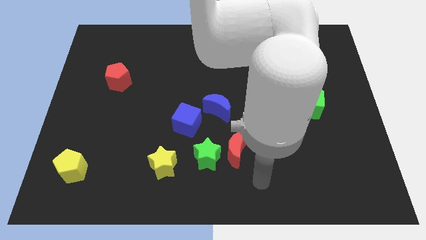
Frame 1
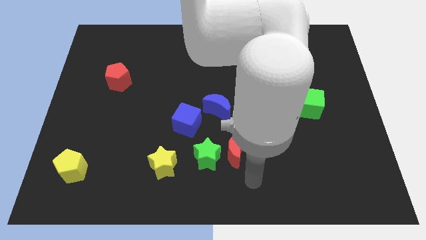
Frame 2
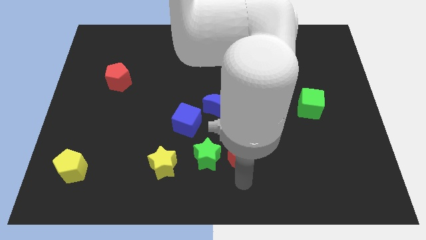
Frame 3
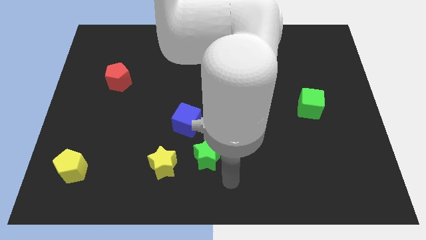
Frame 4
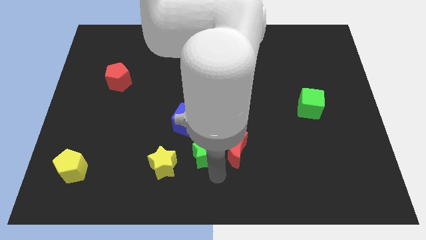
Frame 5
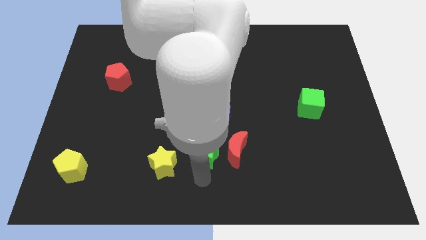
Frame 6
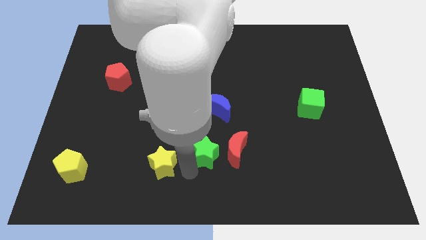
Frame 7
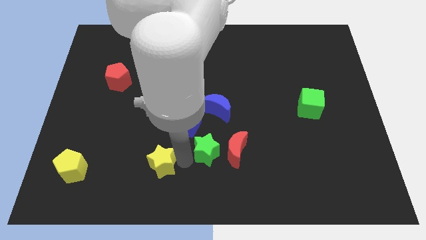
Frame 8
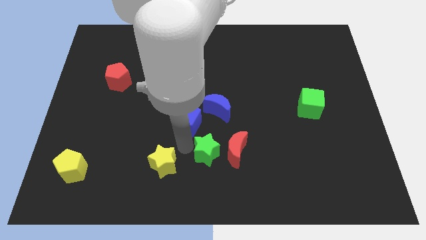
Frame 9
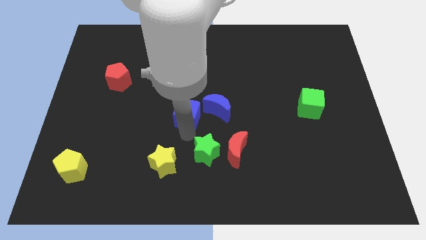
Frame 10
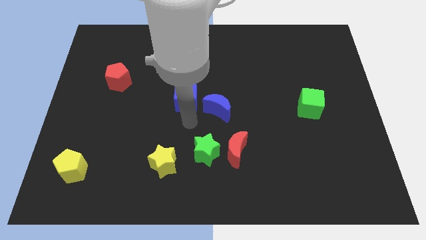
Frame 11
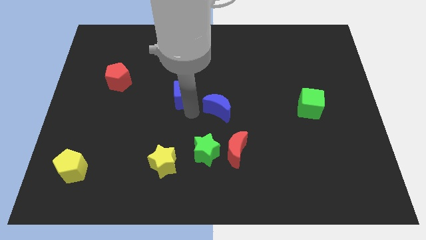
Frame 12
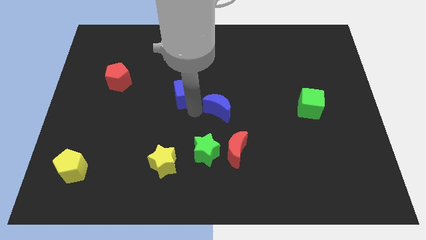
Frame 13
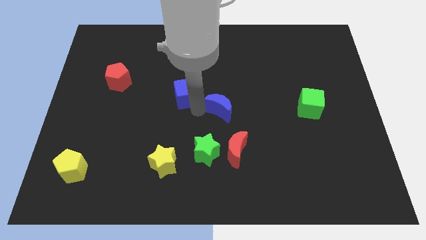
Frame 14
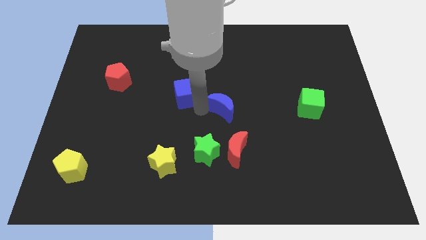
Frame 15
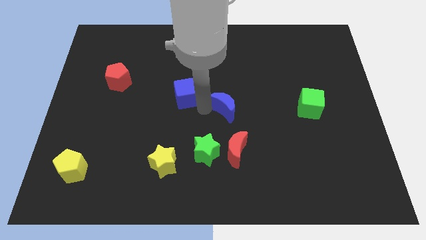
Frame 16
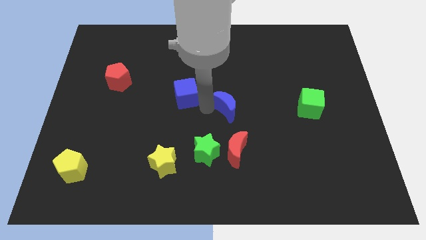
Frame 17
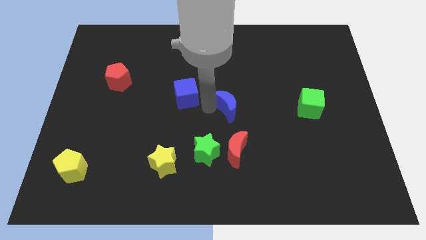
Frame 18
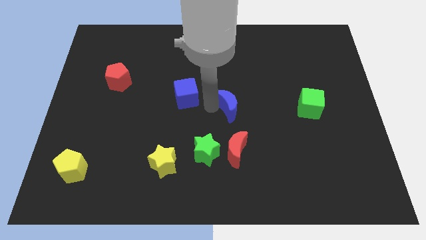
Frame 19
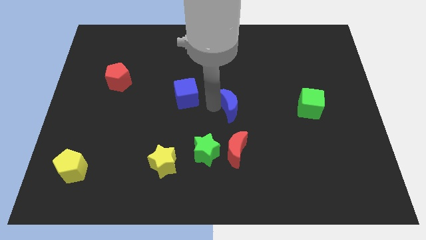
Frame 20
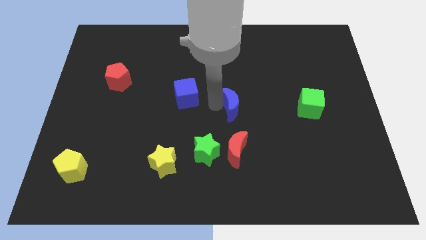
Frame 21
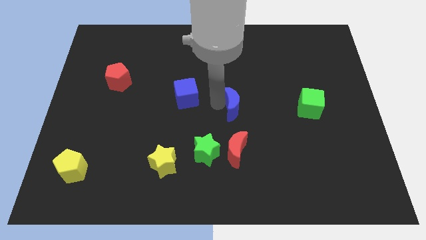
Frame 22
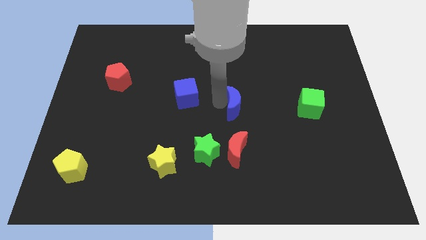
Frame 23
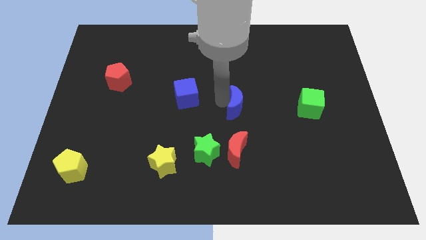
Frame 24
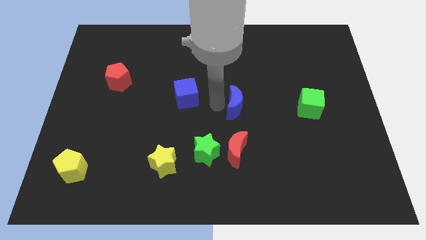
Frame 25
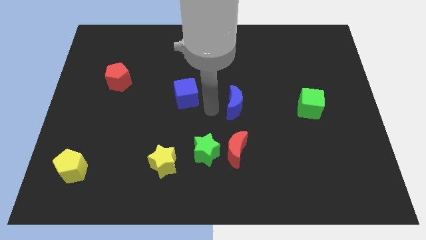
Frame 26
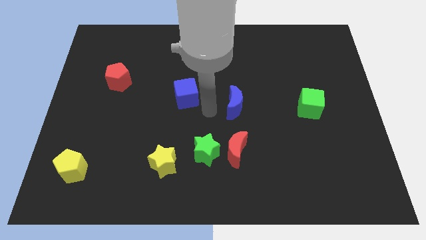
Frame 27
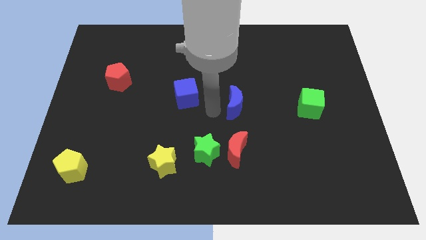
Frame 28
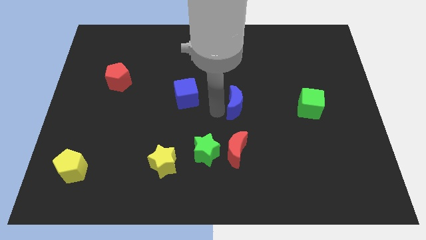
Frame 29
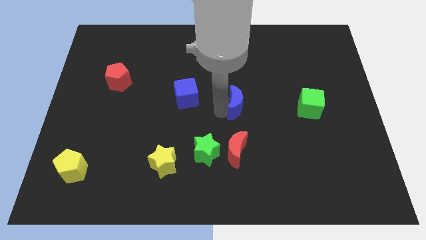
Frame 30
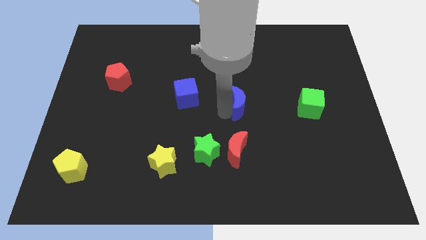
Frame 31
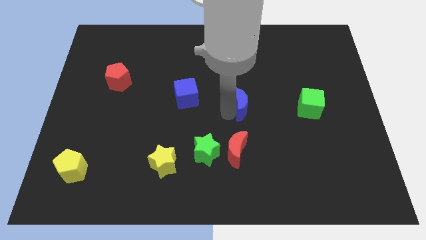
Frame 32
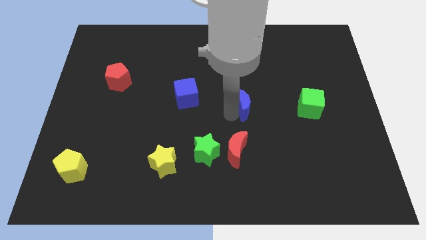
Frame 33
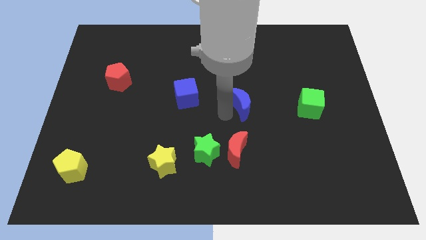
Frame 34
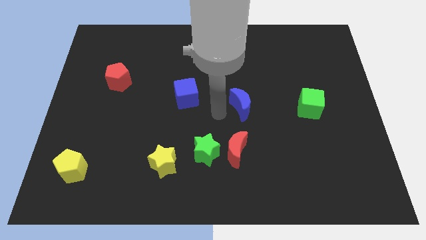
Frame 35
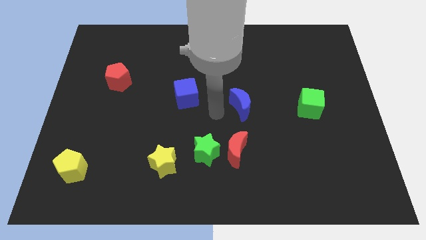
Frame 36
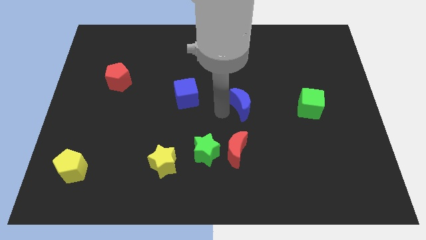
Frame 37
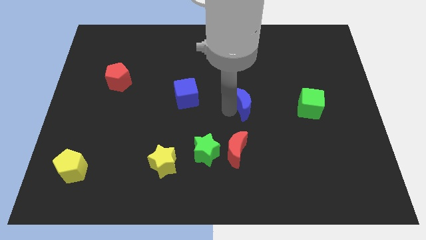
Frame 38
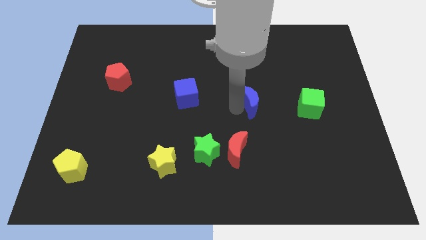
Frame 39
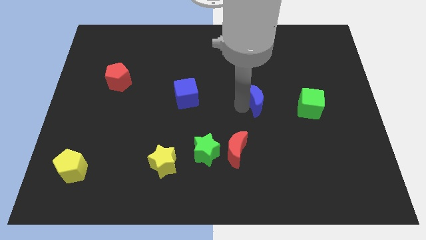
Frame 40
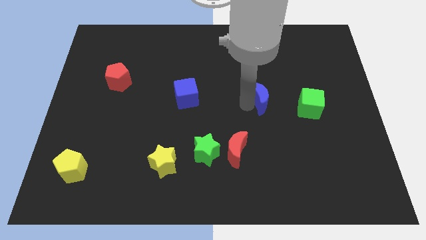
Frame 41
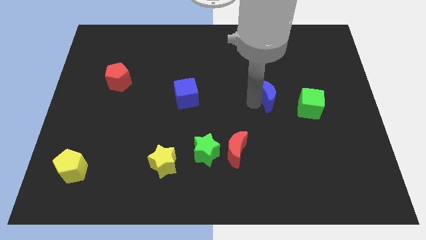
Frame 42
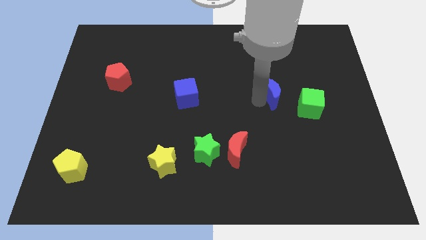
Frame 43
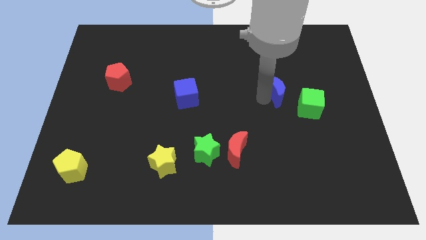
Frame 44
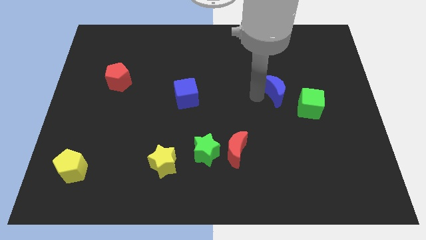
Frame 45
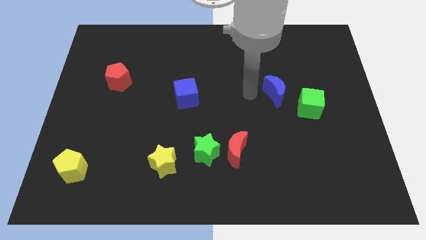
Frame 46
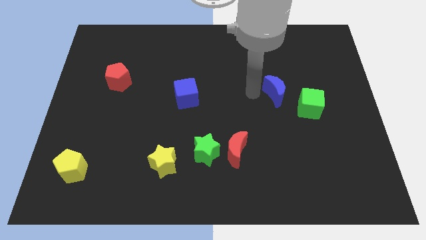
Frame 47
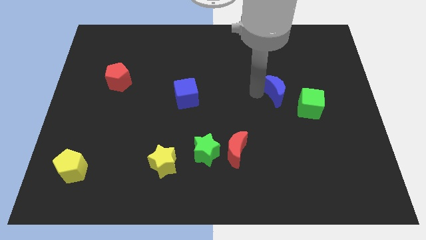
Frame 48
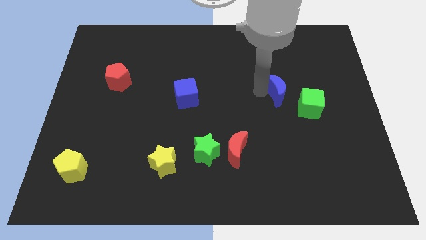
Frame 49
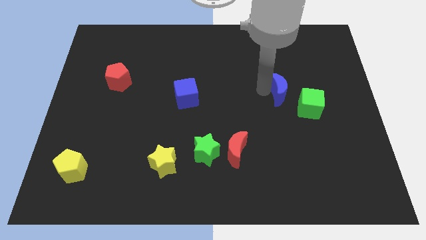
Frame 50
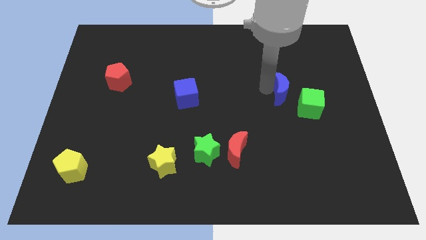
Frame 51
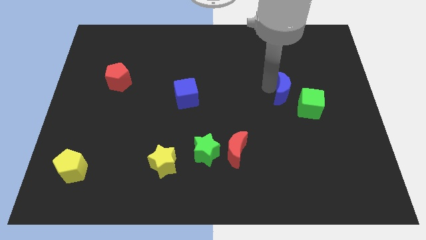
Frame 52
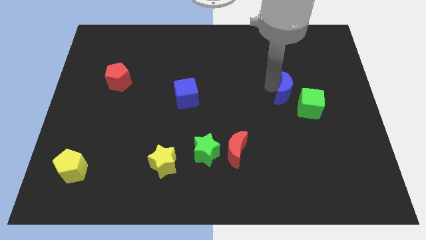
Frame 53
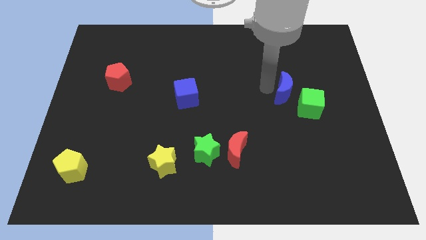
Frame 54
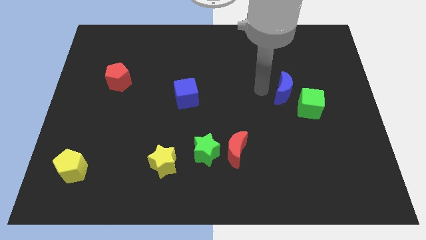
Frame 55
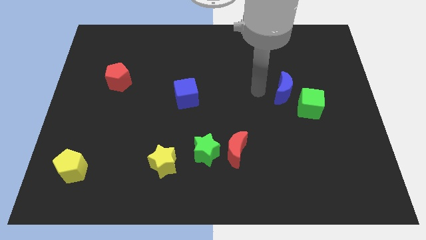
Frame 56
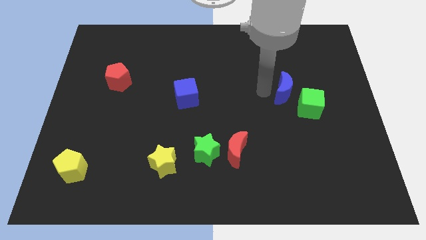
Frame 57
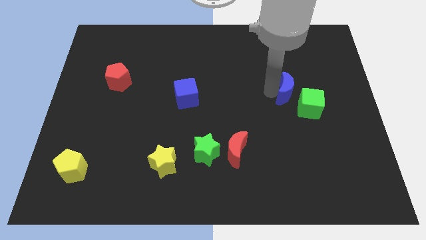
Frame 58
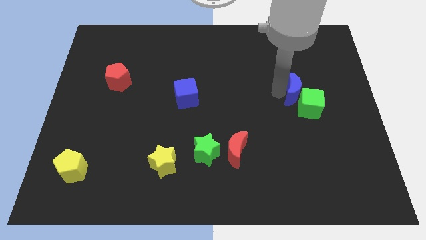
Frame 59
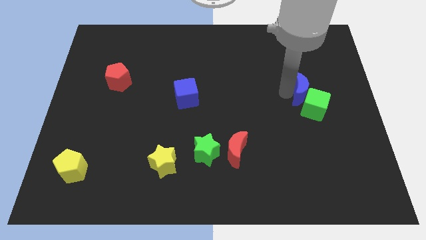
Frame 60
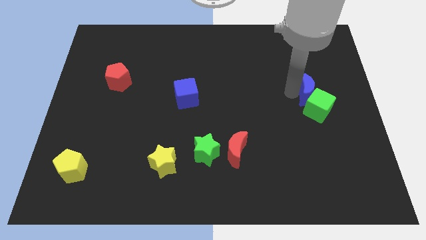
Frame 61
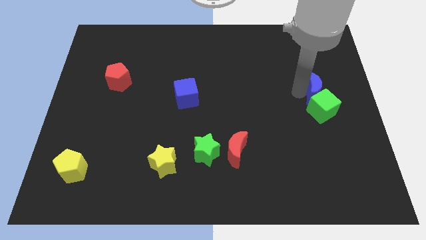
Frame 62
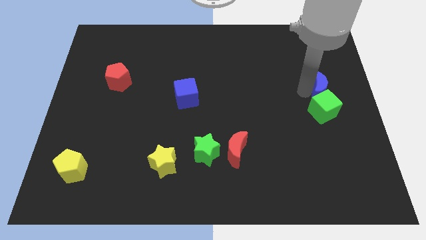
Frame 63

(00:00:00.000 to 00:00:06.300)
push the blue moon to the right side

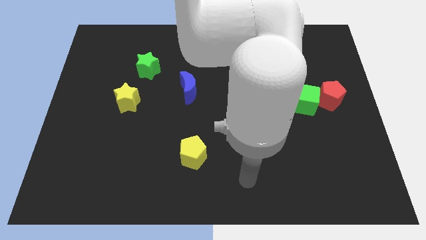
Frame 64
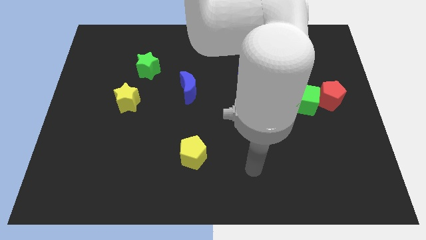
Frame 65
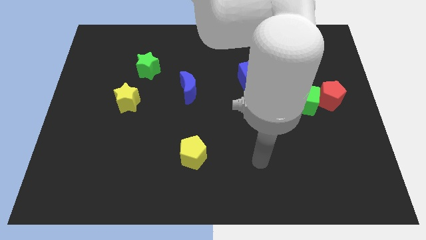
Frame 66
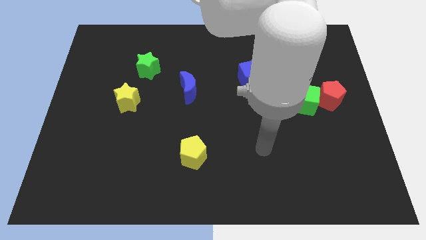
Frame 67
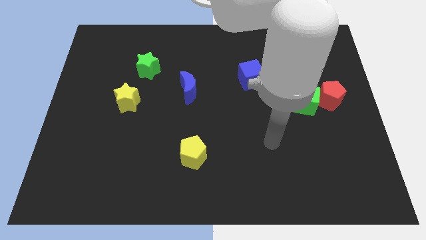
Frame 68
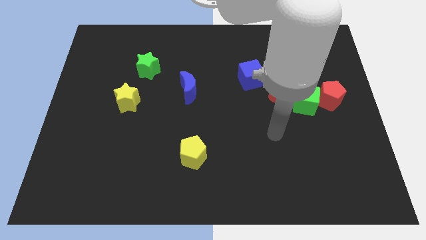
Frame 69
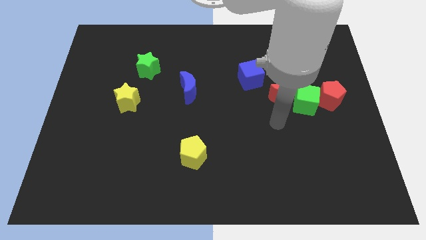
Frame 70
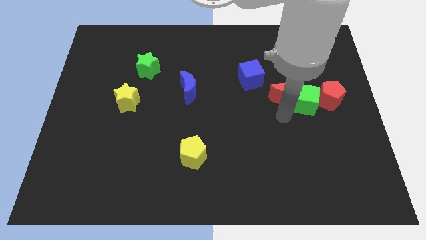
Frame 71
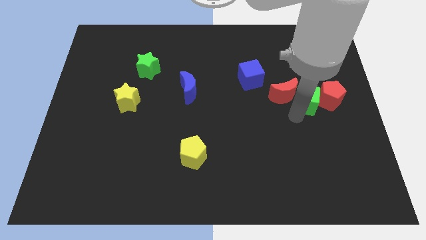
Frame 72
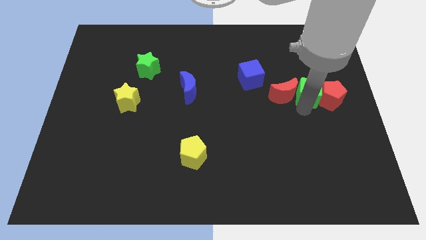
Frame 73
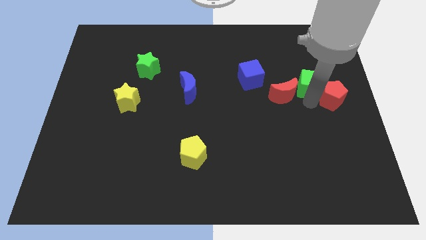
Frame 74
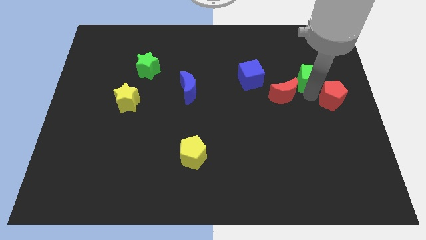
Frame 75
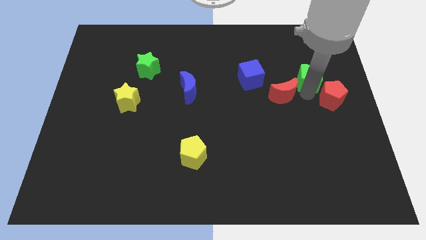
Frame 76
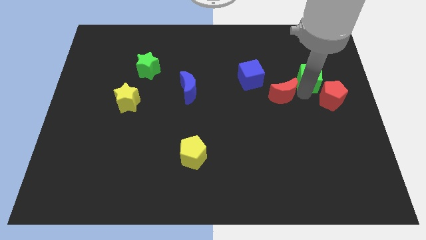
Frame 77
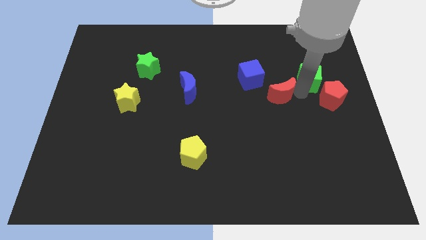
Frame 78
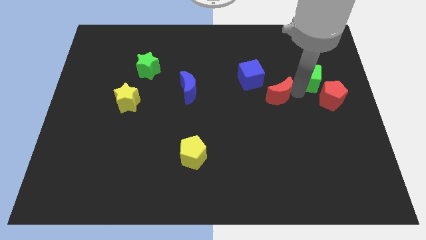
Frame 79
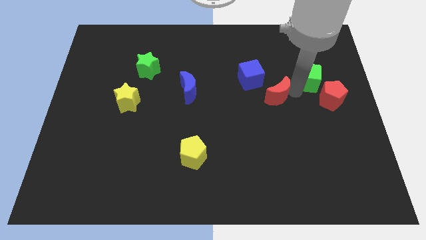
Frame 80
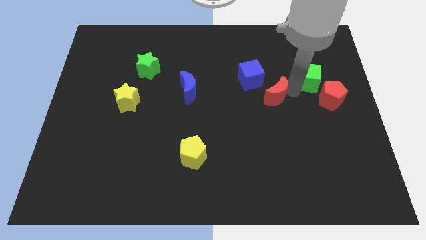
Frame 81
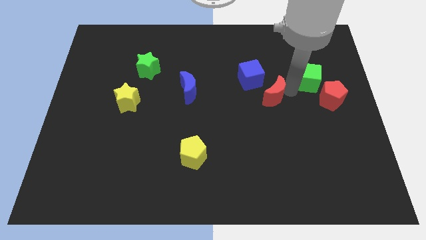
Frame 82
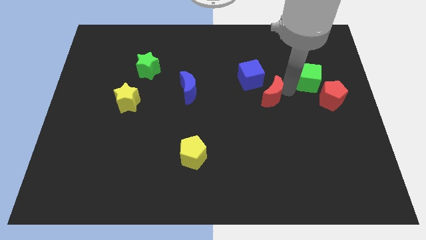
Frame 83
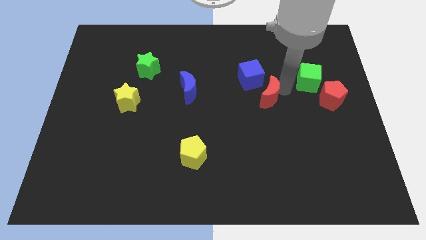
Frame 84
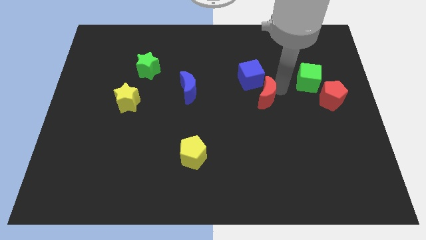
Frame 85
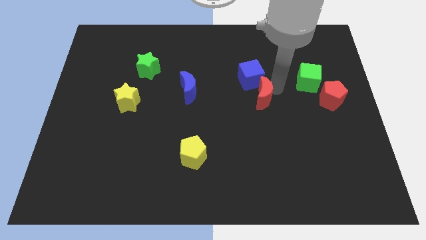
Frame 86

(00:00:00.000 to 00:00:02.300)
push the red moon to the center
